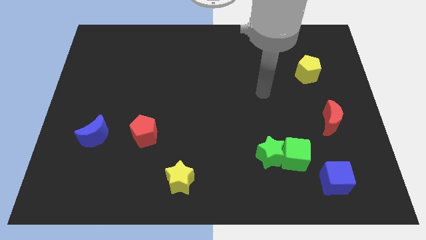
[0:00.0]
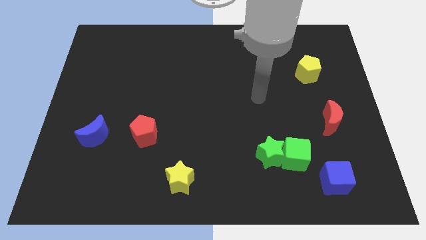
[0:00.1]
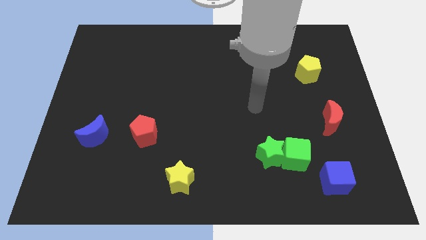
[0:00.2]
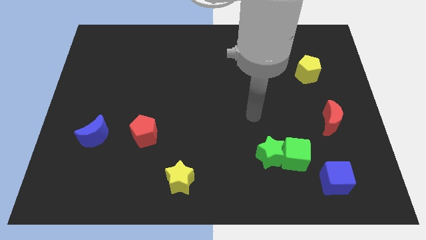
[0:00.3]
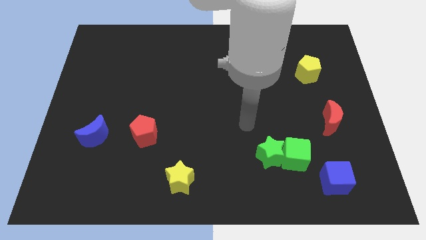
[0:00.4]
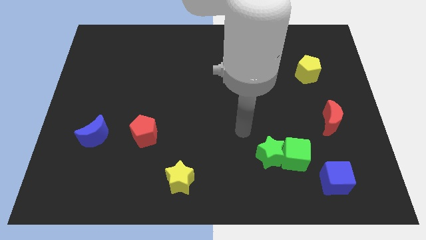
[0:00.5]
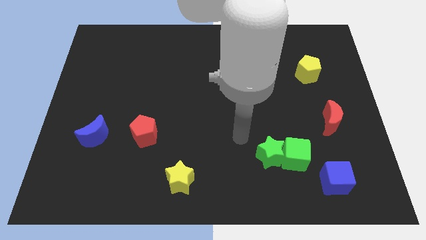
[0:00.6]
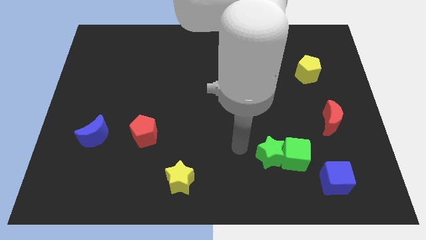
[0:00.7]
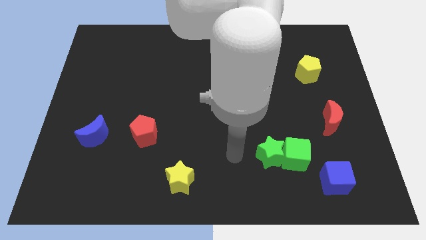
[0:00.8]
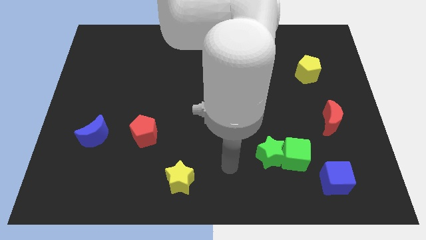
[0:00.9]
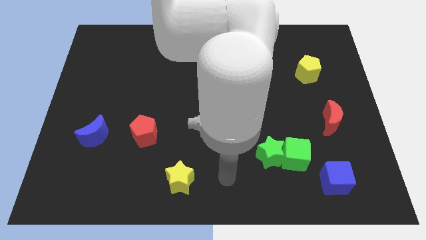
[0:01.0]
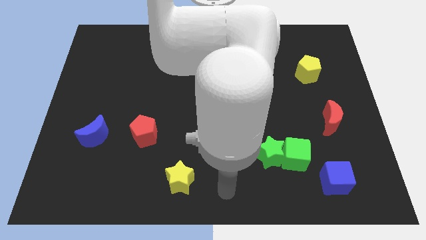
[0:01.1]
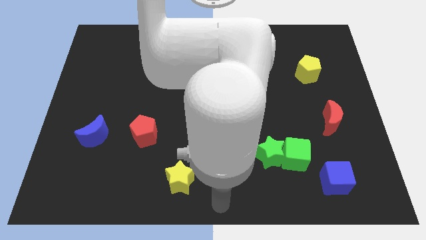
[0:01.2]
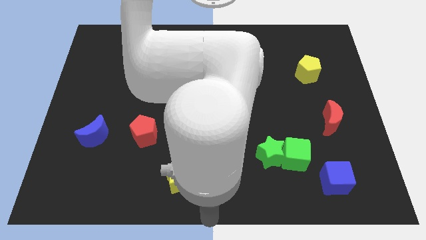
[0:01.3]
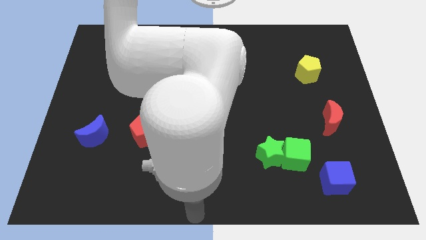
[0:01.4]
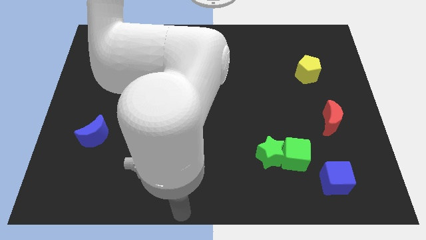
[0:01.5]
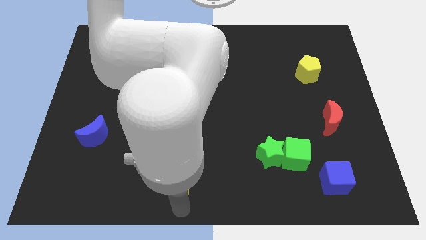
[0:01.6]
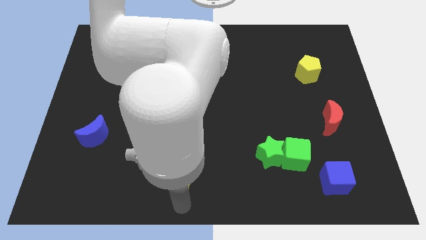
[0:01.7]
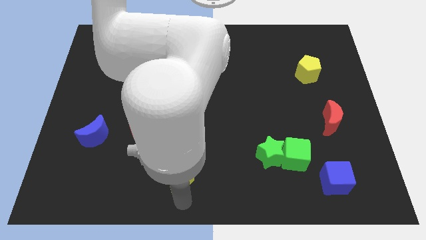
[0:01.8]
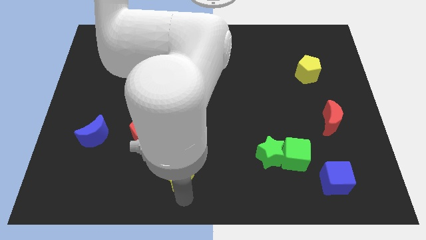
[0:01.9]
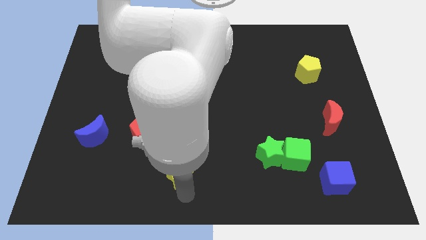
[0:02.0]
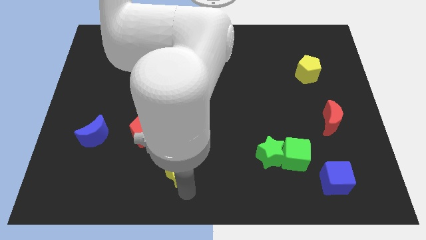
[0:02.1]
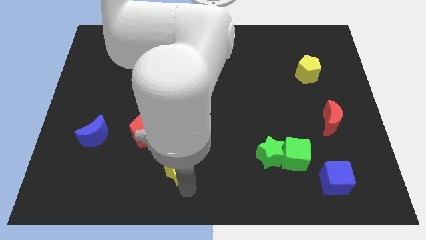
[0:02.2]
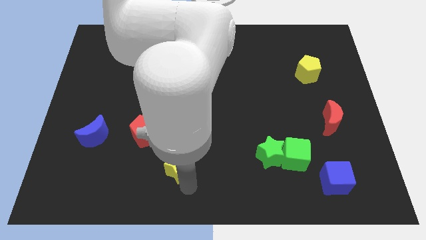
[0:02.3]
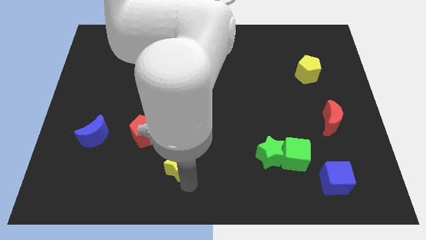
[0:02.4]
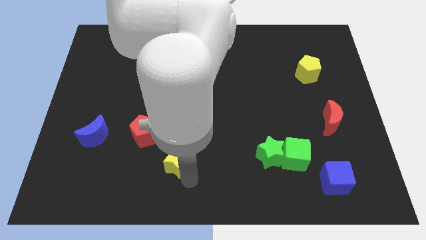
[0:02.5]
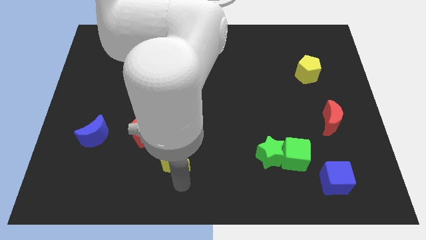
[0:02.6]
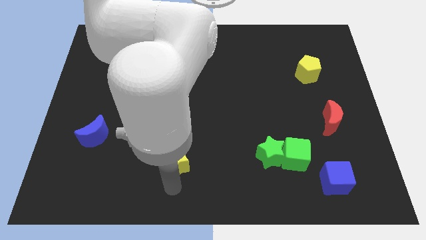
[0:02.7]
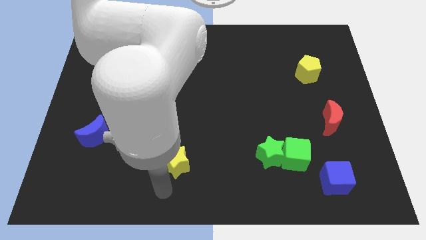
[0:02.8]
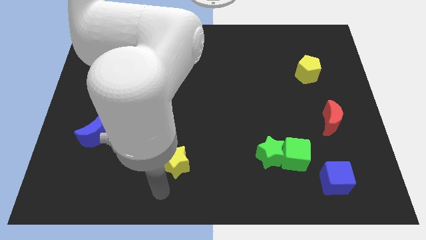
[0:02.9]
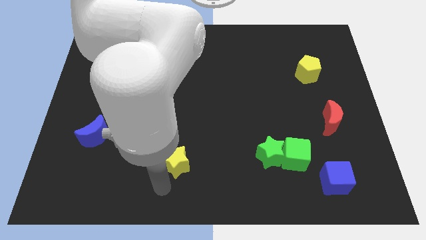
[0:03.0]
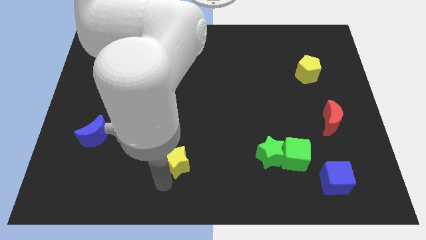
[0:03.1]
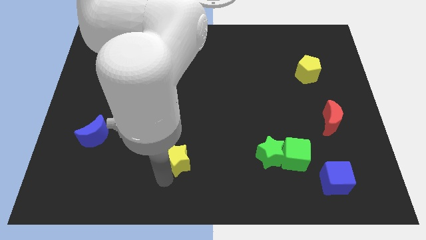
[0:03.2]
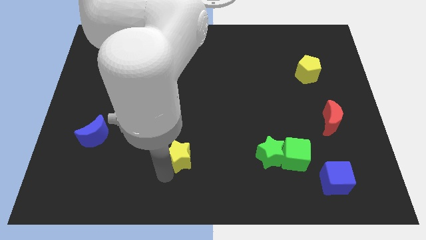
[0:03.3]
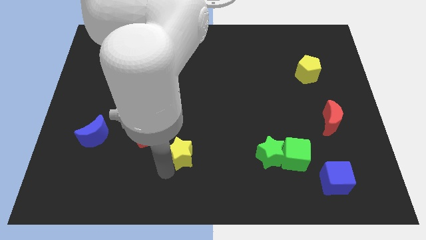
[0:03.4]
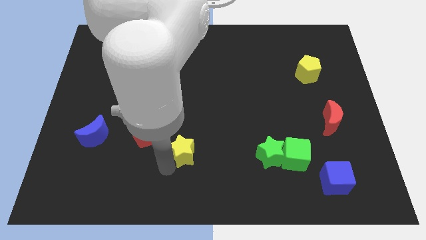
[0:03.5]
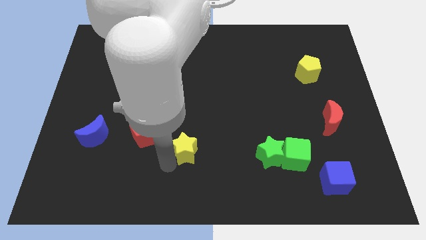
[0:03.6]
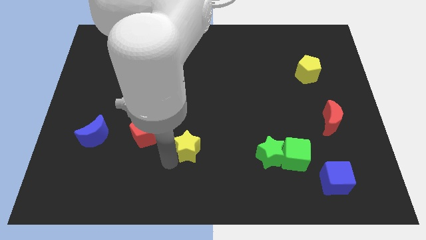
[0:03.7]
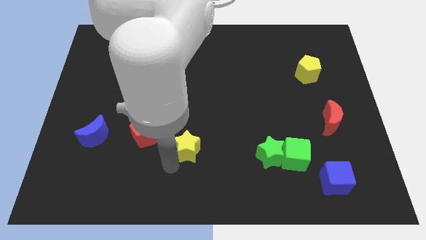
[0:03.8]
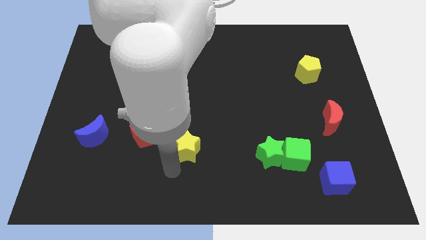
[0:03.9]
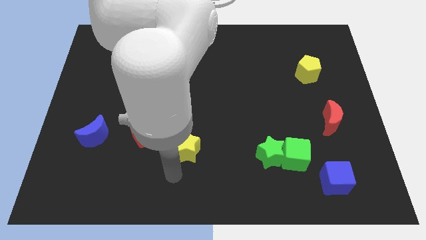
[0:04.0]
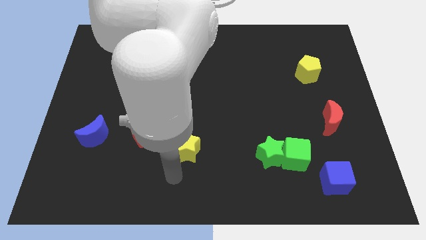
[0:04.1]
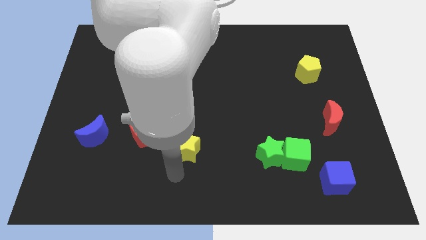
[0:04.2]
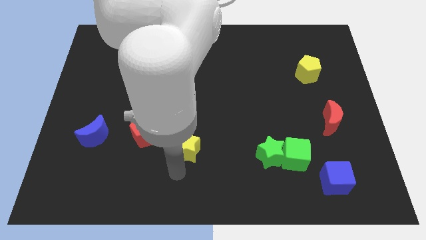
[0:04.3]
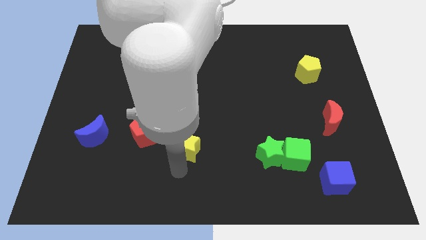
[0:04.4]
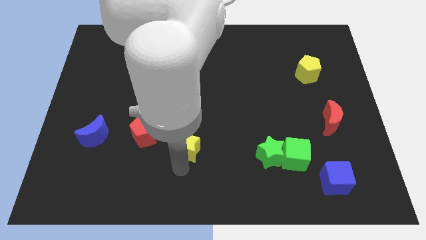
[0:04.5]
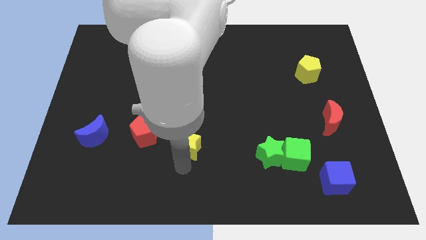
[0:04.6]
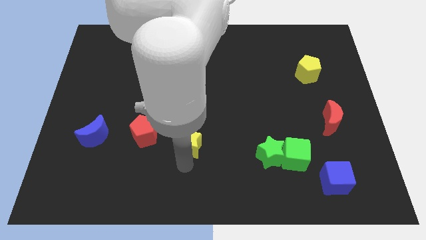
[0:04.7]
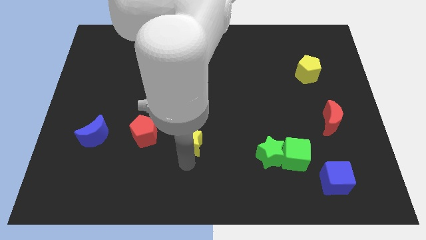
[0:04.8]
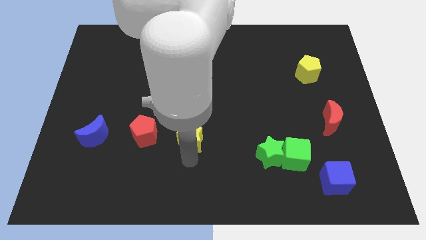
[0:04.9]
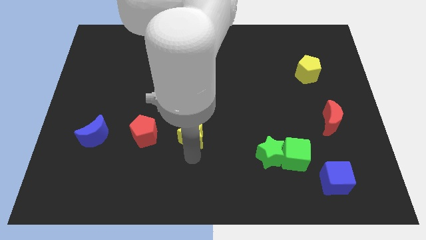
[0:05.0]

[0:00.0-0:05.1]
move the yellow star to the center of the board

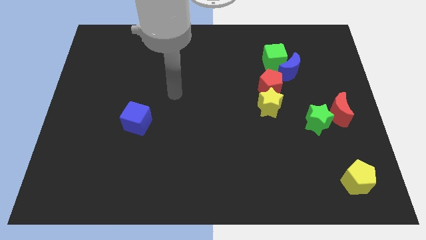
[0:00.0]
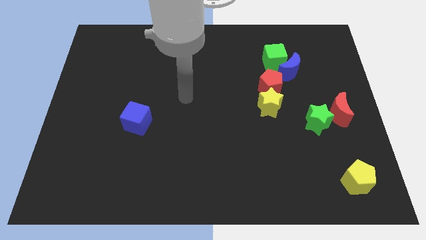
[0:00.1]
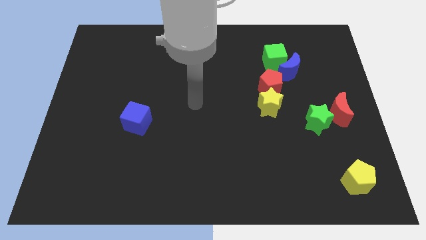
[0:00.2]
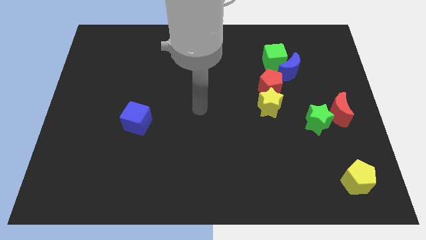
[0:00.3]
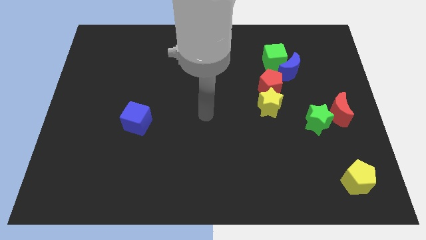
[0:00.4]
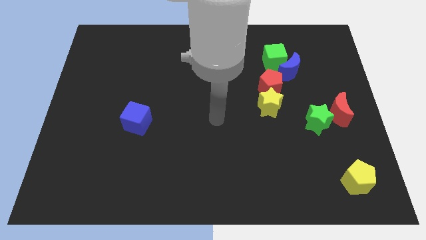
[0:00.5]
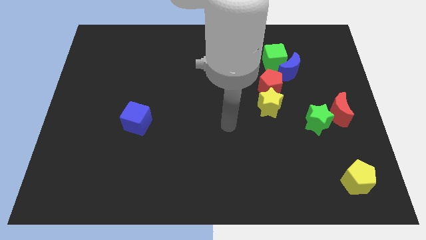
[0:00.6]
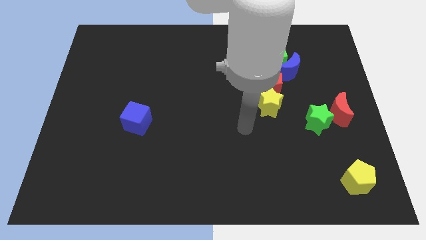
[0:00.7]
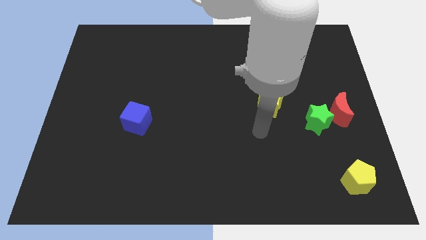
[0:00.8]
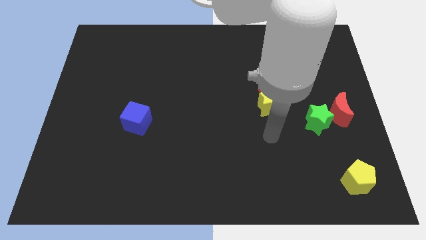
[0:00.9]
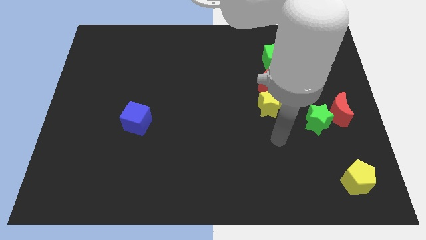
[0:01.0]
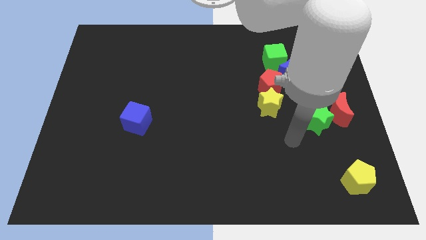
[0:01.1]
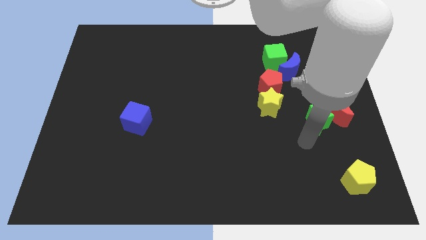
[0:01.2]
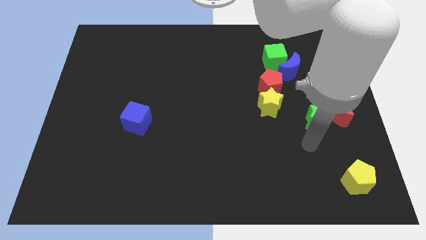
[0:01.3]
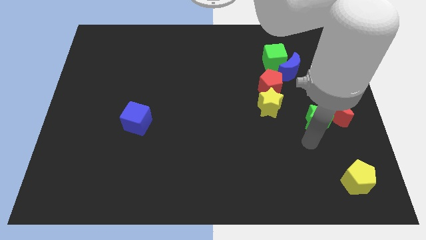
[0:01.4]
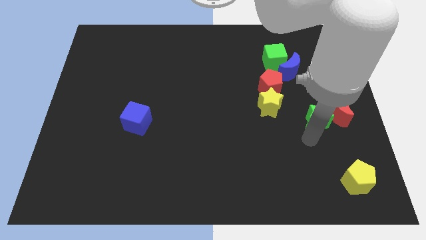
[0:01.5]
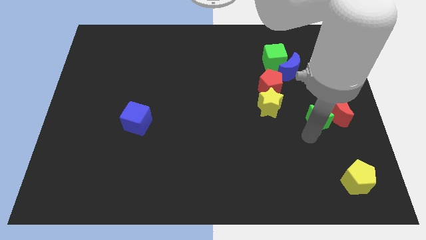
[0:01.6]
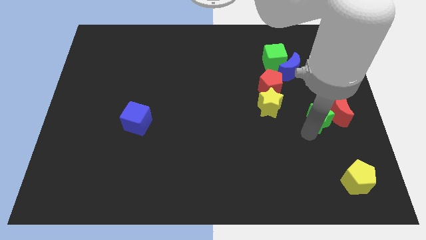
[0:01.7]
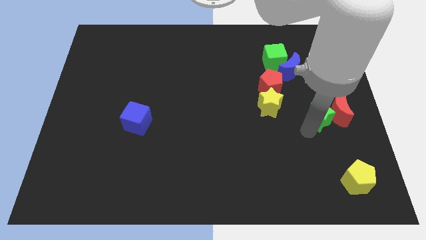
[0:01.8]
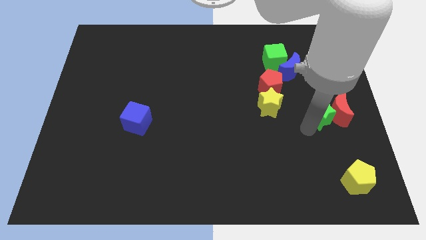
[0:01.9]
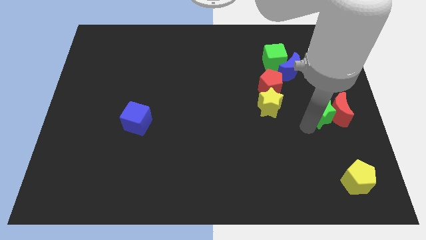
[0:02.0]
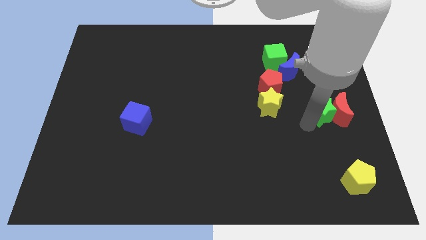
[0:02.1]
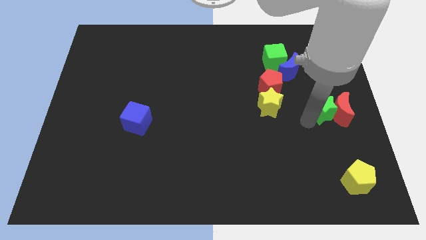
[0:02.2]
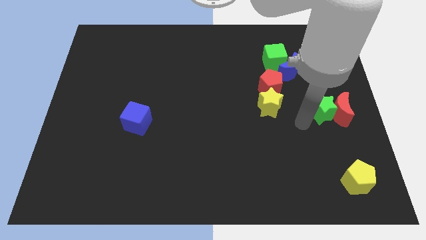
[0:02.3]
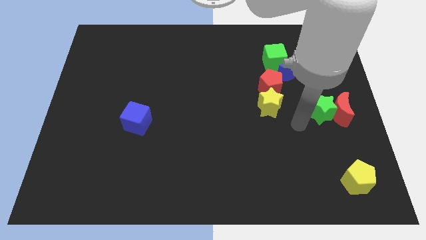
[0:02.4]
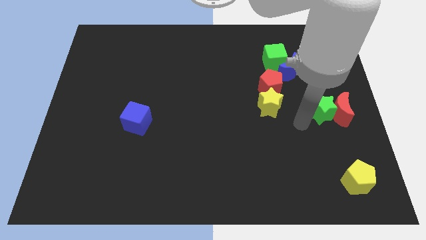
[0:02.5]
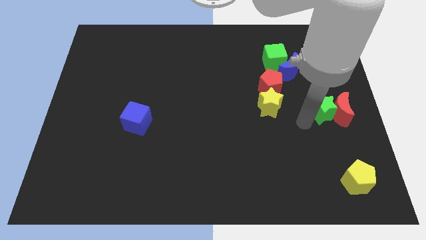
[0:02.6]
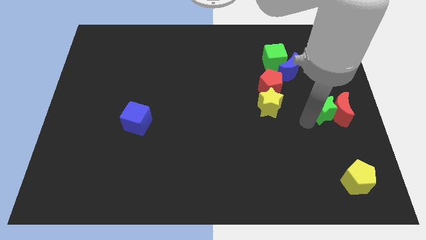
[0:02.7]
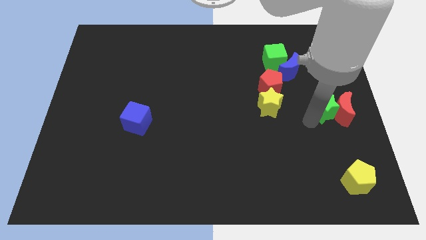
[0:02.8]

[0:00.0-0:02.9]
push the green star to the center right
